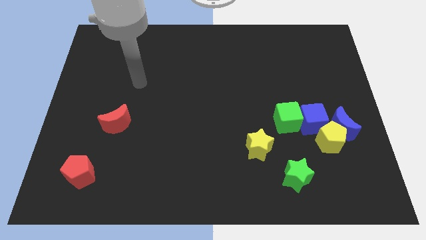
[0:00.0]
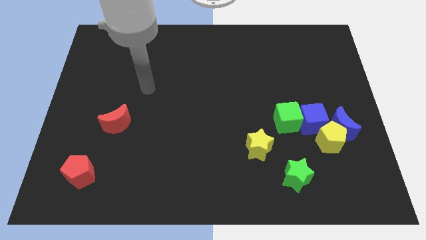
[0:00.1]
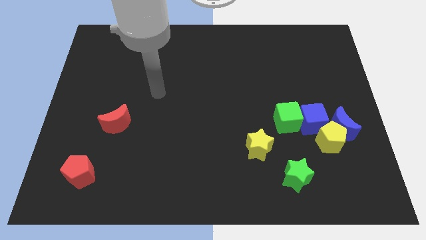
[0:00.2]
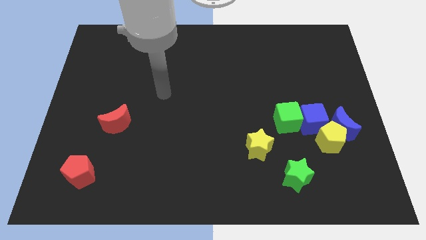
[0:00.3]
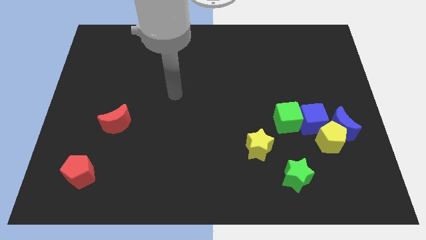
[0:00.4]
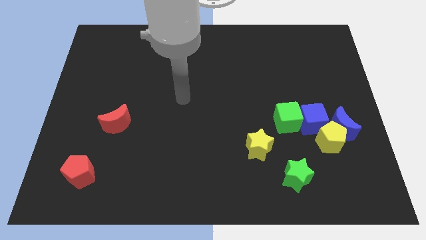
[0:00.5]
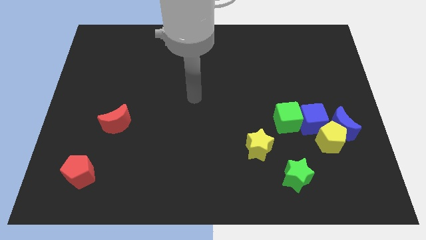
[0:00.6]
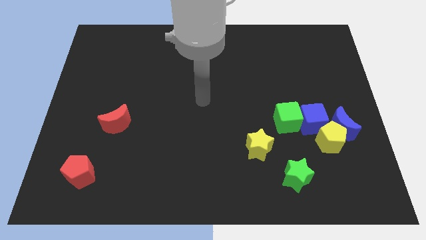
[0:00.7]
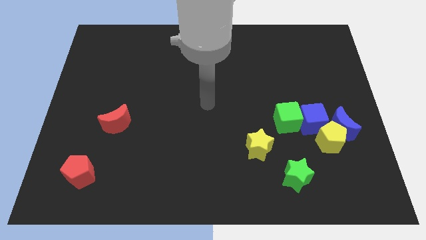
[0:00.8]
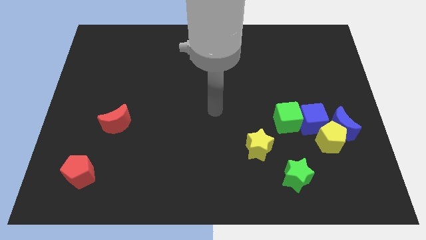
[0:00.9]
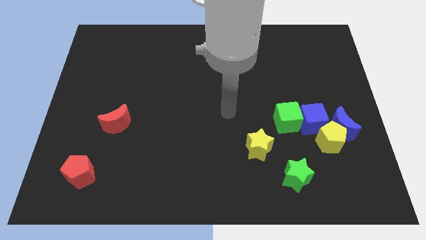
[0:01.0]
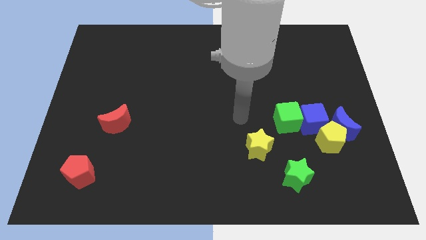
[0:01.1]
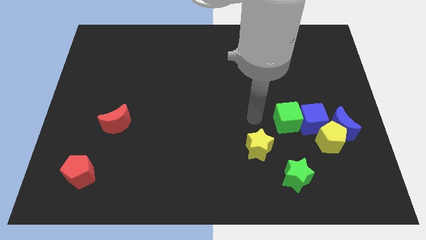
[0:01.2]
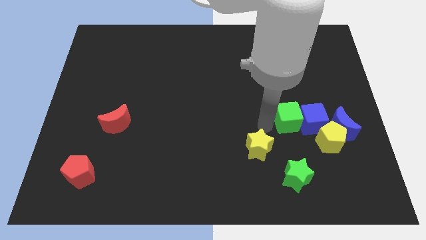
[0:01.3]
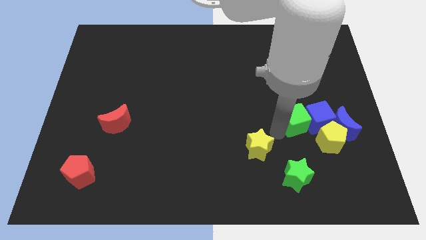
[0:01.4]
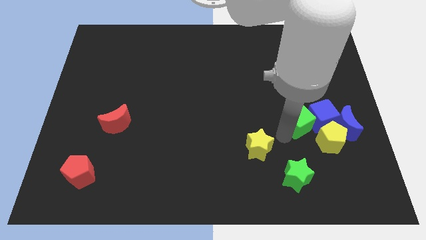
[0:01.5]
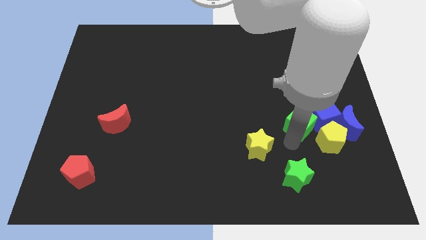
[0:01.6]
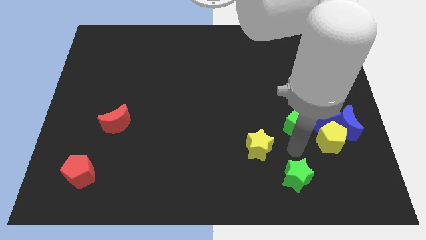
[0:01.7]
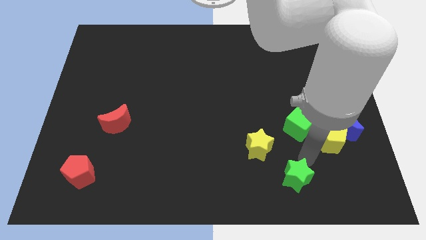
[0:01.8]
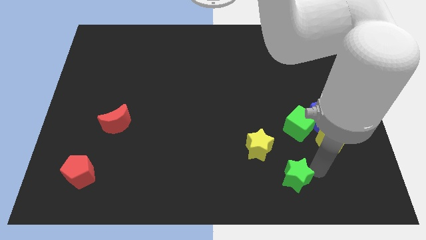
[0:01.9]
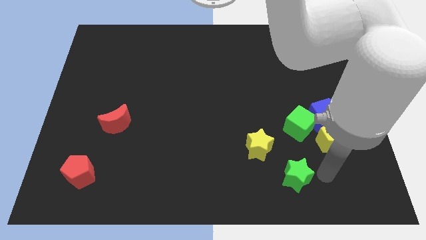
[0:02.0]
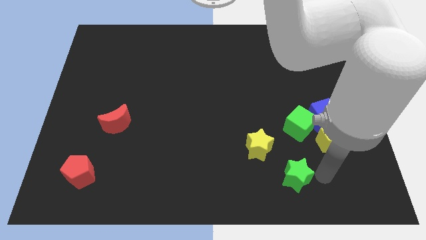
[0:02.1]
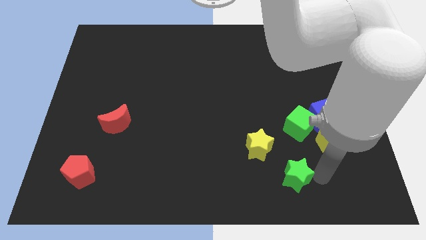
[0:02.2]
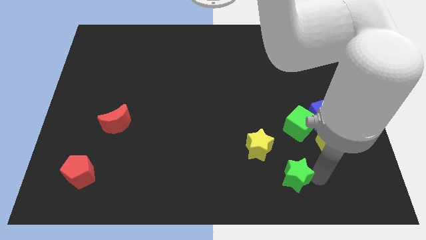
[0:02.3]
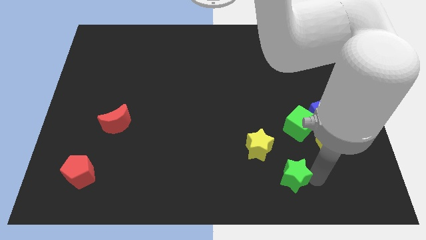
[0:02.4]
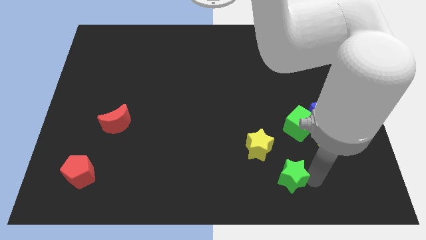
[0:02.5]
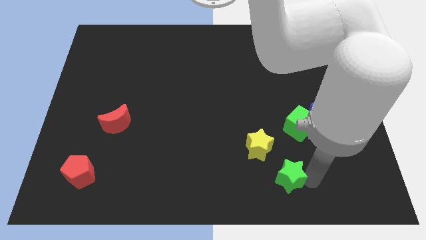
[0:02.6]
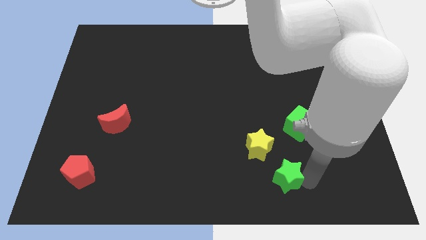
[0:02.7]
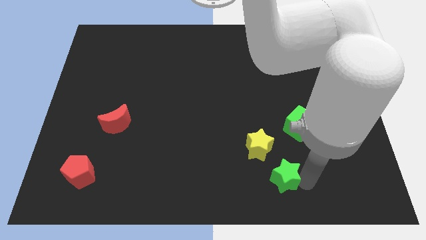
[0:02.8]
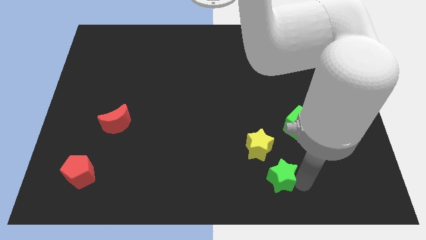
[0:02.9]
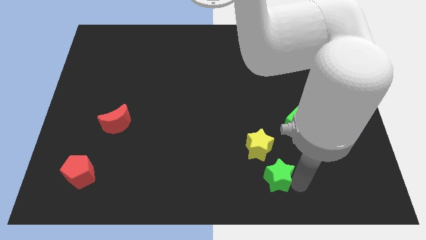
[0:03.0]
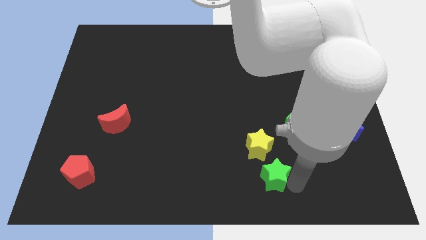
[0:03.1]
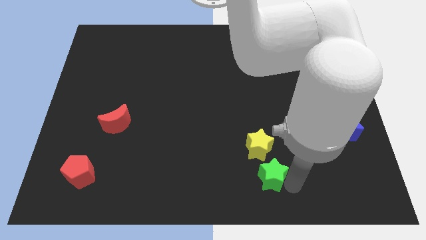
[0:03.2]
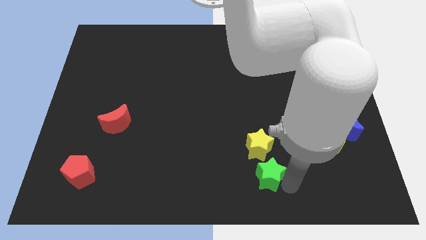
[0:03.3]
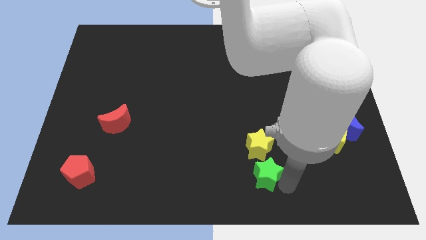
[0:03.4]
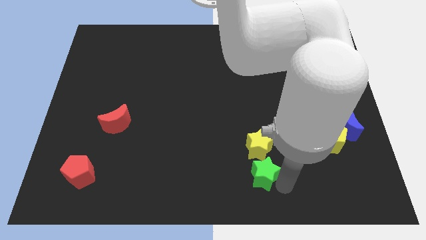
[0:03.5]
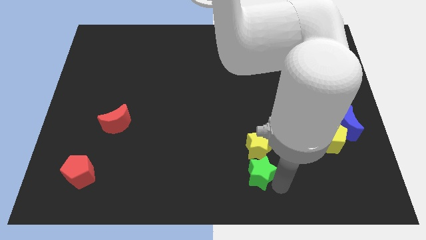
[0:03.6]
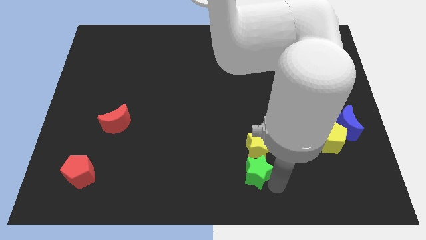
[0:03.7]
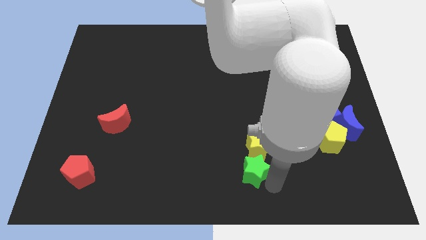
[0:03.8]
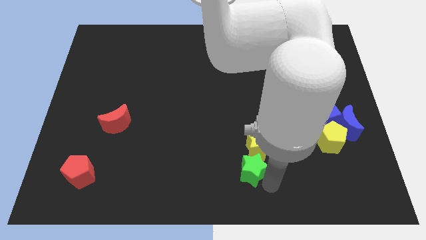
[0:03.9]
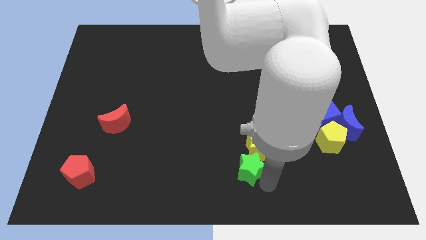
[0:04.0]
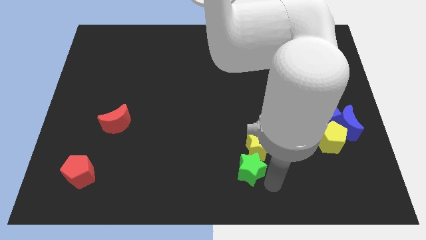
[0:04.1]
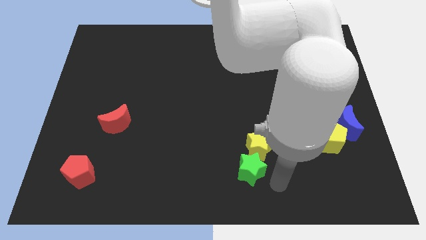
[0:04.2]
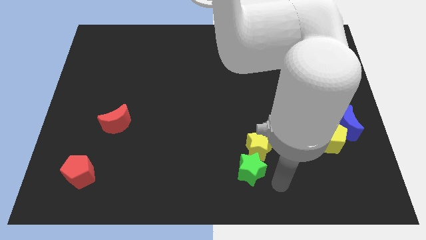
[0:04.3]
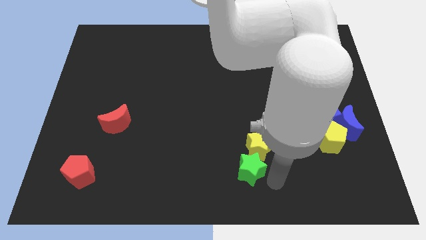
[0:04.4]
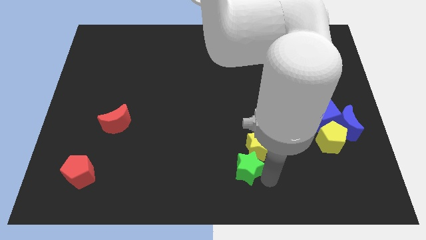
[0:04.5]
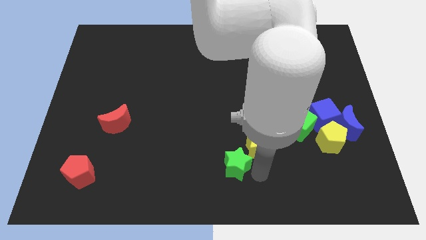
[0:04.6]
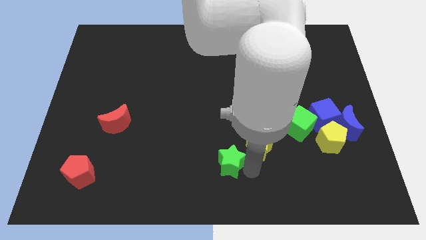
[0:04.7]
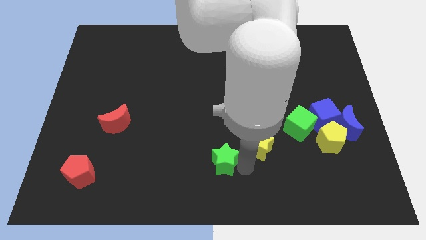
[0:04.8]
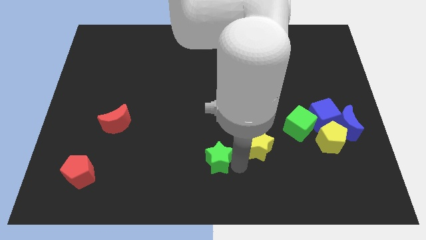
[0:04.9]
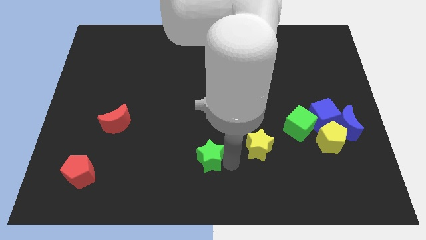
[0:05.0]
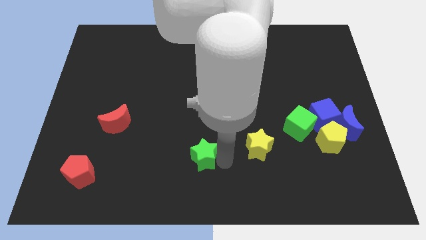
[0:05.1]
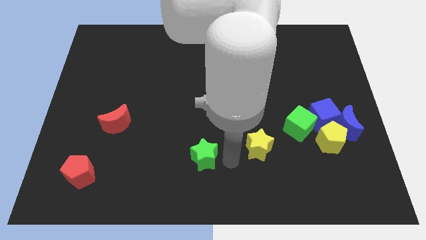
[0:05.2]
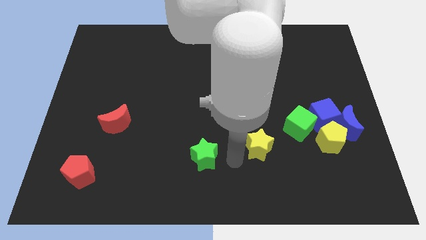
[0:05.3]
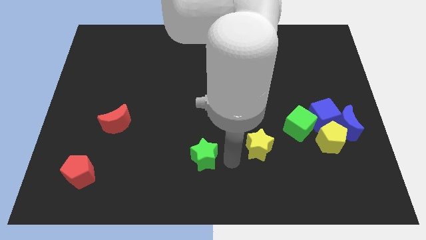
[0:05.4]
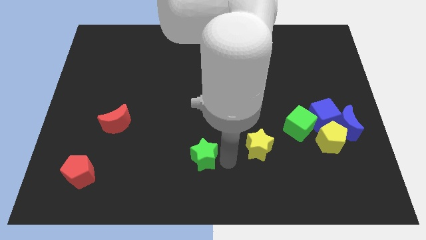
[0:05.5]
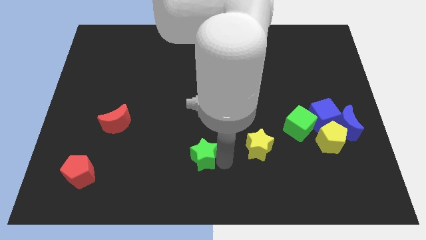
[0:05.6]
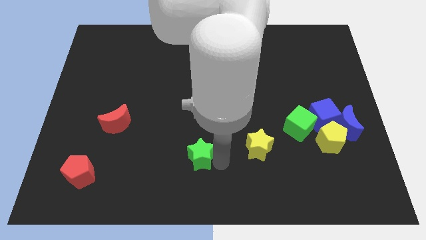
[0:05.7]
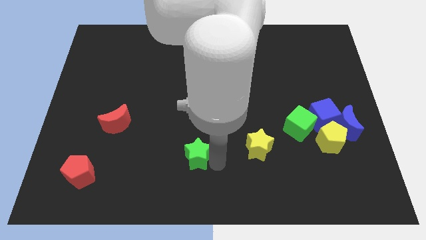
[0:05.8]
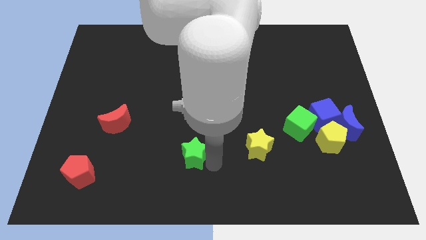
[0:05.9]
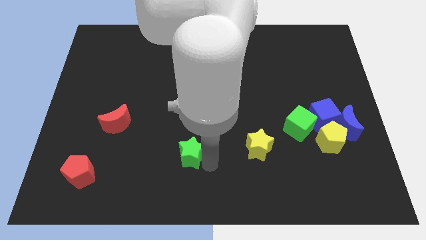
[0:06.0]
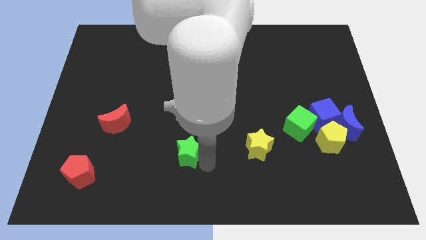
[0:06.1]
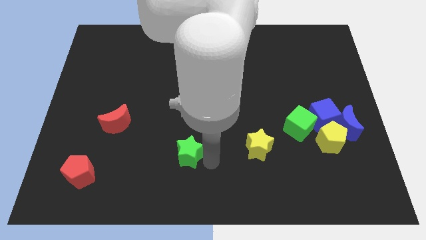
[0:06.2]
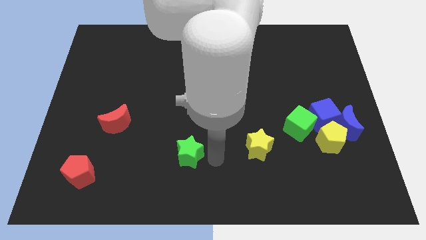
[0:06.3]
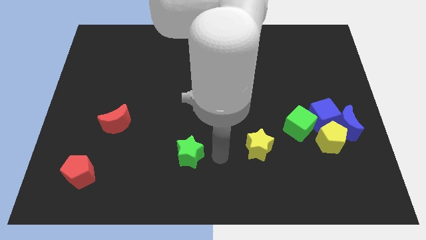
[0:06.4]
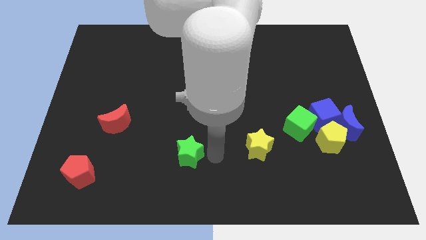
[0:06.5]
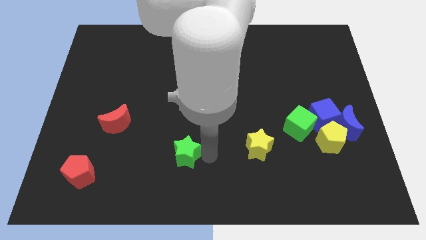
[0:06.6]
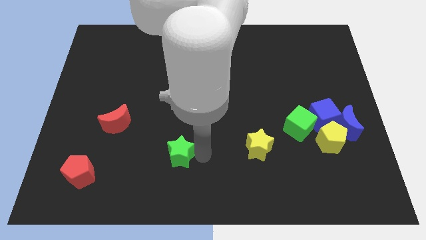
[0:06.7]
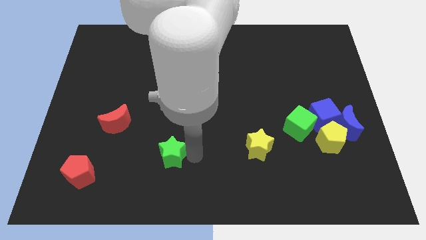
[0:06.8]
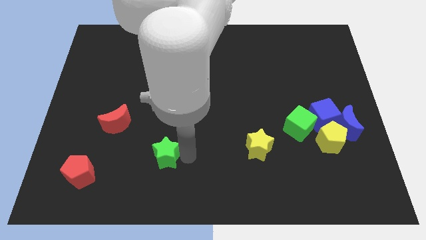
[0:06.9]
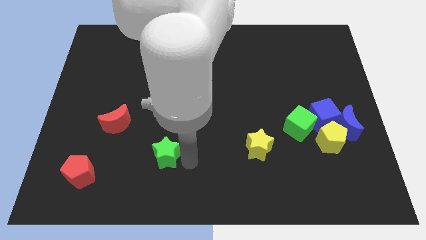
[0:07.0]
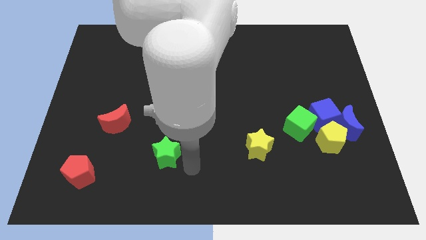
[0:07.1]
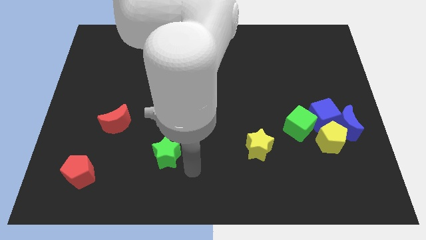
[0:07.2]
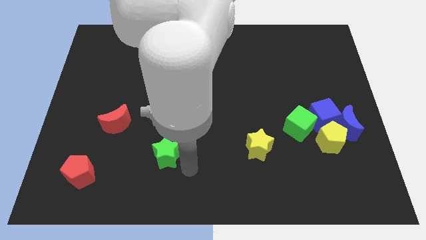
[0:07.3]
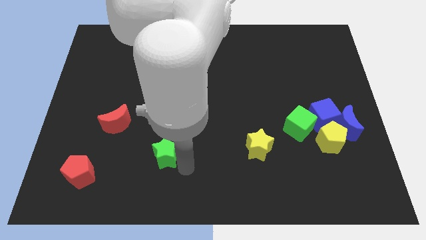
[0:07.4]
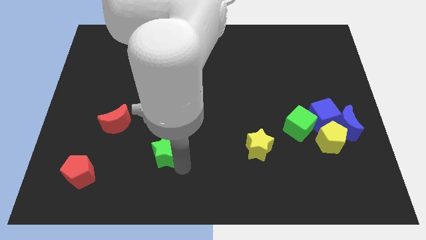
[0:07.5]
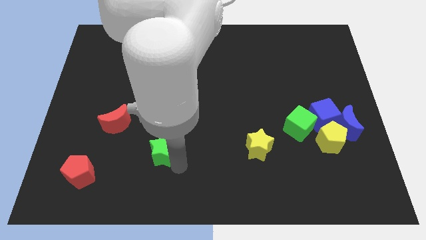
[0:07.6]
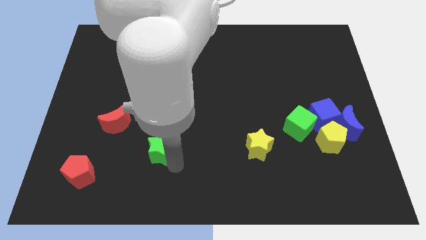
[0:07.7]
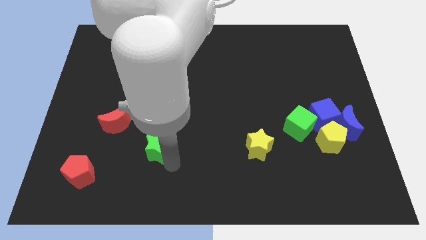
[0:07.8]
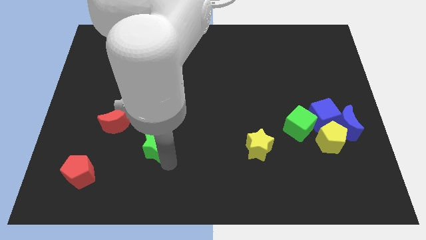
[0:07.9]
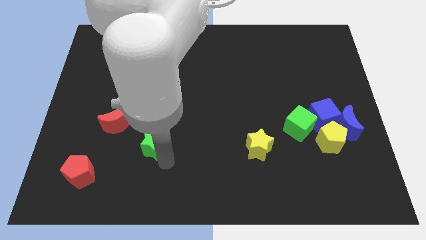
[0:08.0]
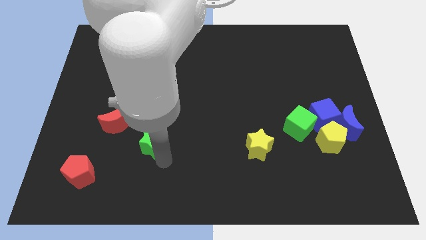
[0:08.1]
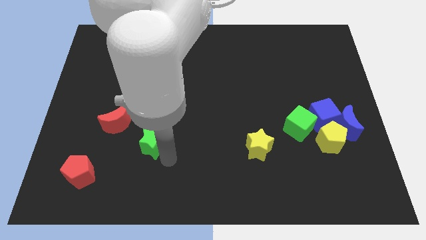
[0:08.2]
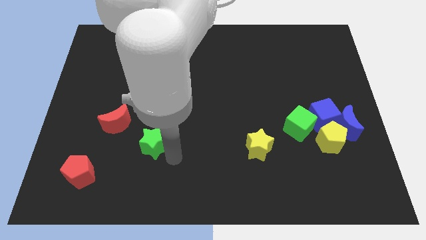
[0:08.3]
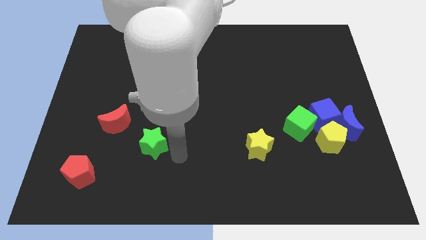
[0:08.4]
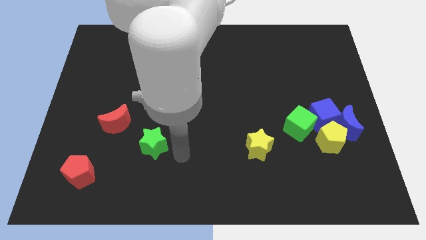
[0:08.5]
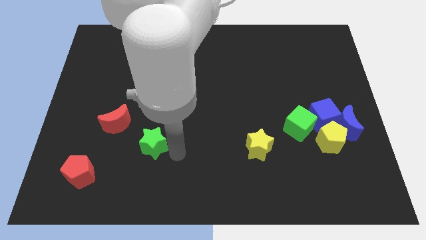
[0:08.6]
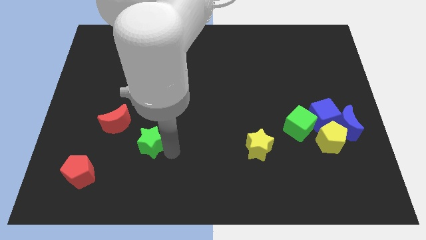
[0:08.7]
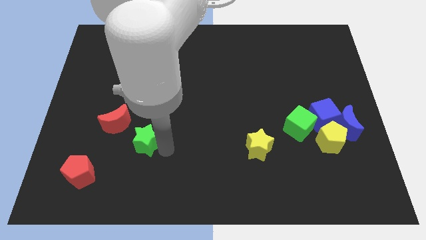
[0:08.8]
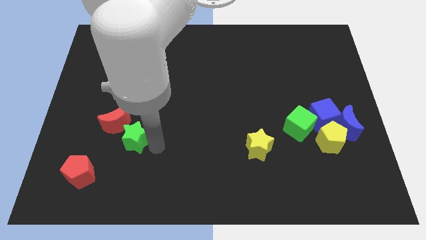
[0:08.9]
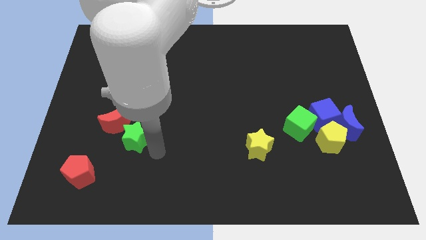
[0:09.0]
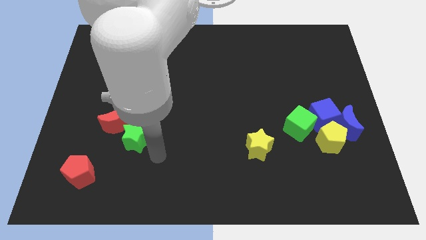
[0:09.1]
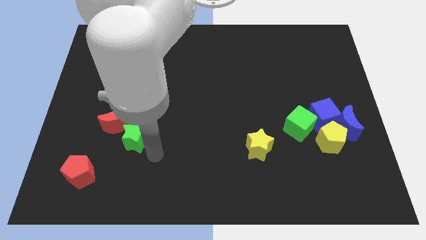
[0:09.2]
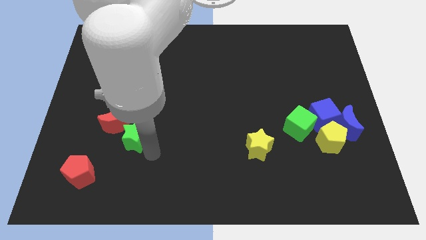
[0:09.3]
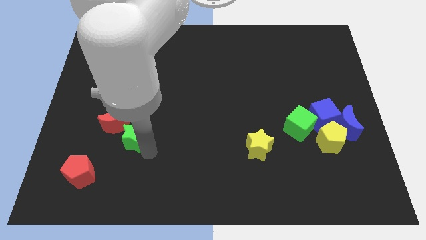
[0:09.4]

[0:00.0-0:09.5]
slide the green star next to the red moon
